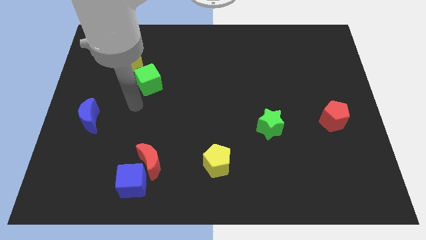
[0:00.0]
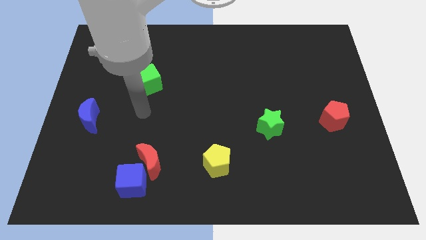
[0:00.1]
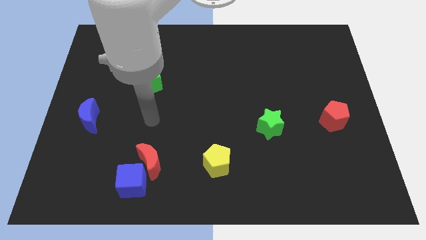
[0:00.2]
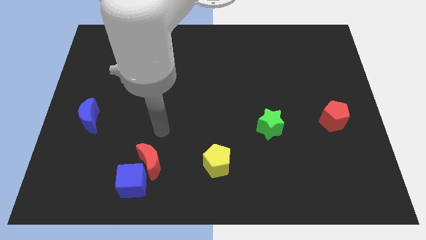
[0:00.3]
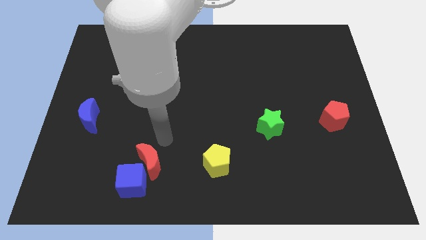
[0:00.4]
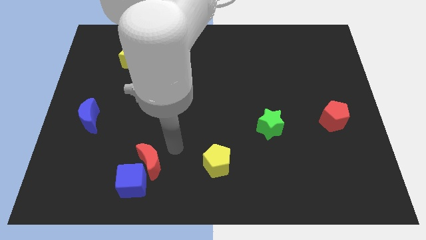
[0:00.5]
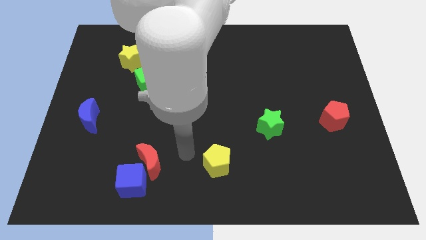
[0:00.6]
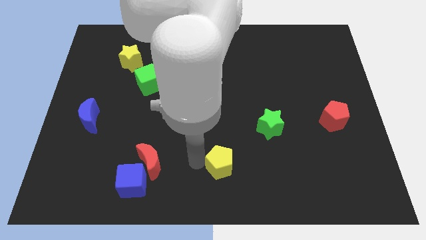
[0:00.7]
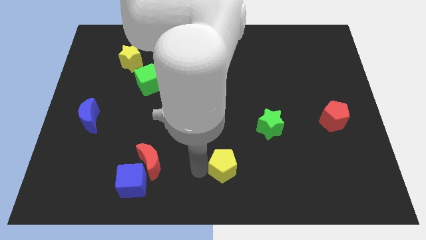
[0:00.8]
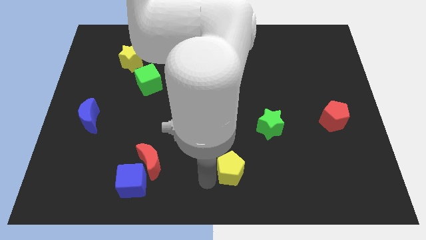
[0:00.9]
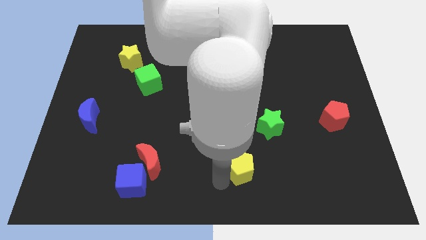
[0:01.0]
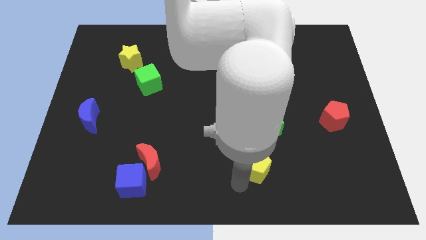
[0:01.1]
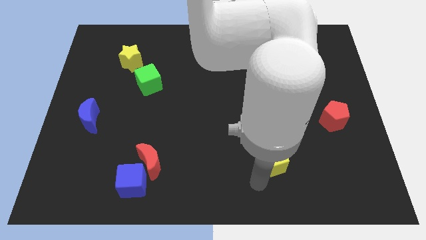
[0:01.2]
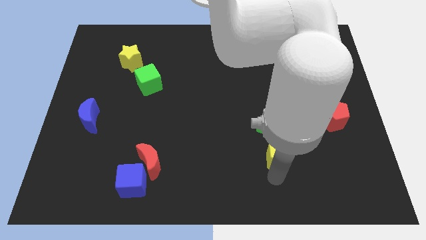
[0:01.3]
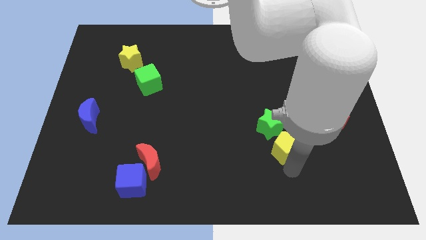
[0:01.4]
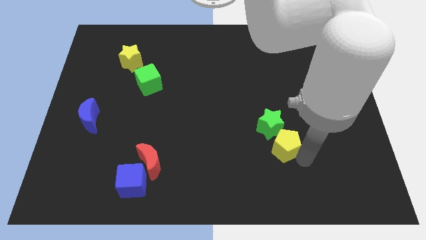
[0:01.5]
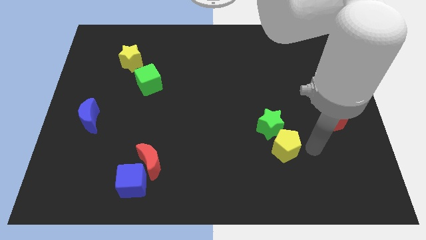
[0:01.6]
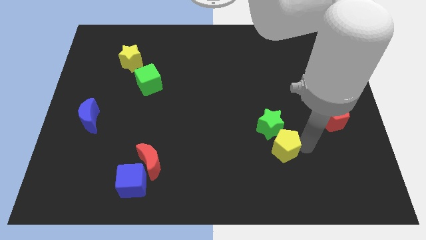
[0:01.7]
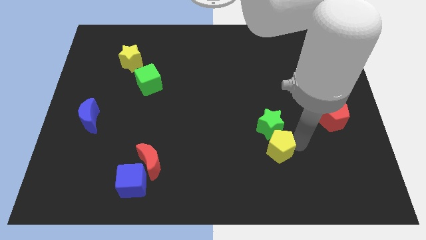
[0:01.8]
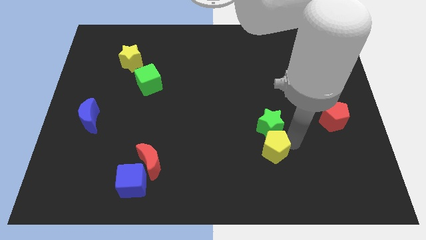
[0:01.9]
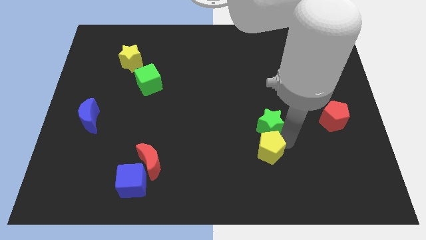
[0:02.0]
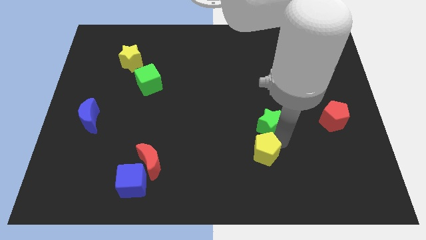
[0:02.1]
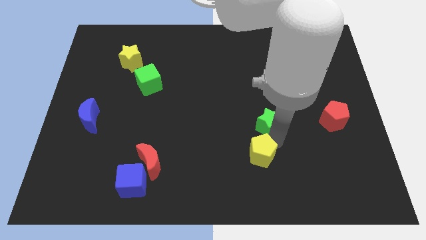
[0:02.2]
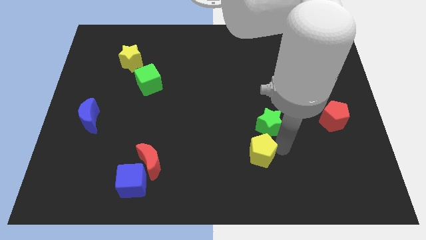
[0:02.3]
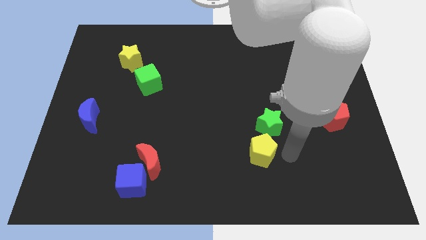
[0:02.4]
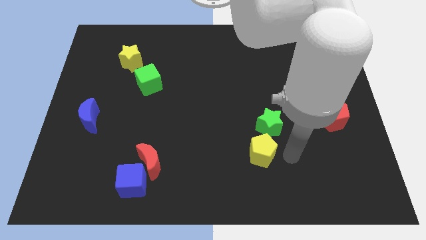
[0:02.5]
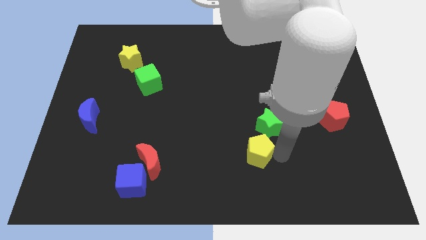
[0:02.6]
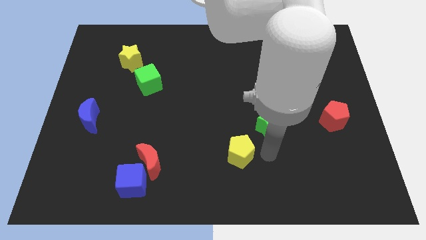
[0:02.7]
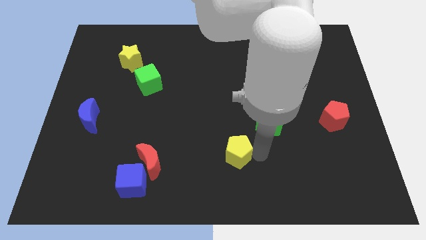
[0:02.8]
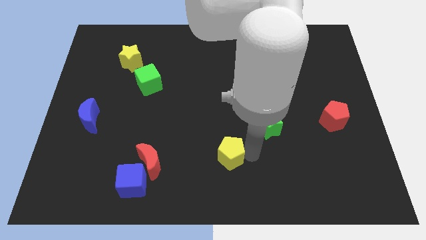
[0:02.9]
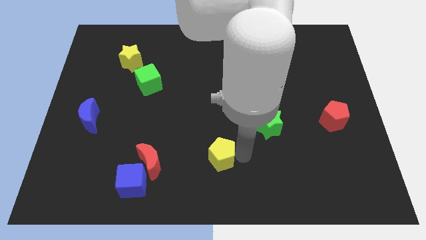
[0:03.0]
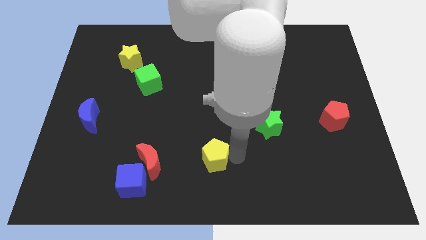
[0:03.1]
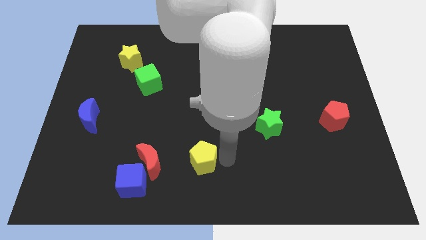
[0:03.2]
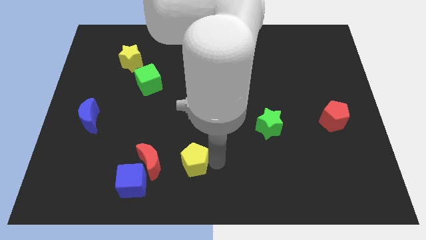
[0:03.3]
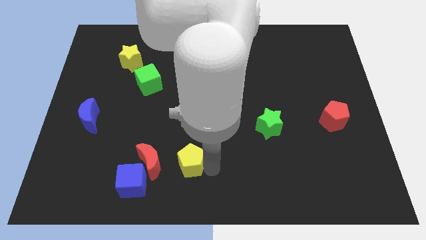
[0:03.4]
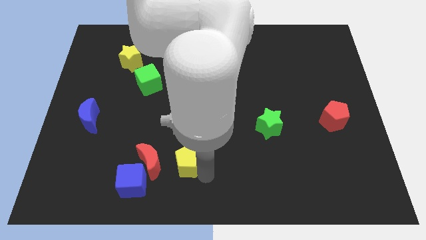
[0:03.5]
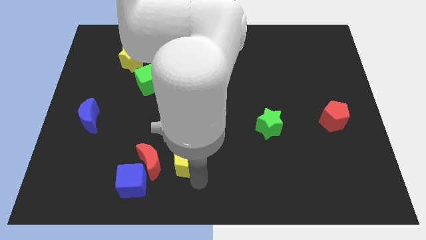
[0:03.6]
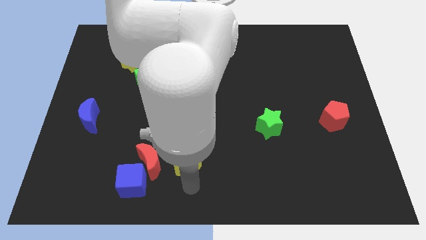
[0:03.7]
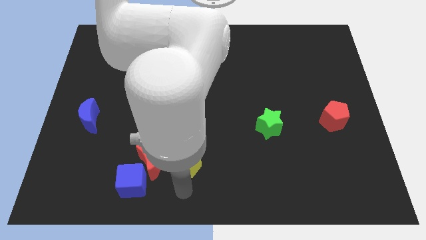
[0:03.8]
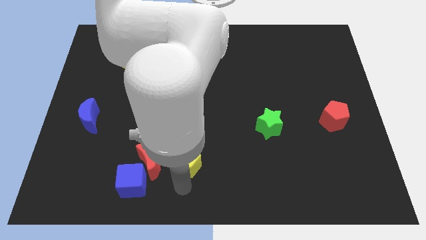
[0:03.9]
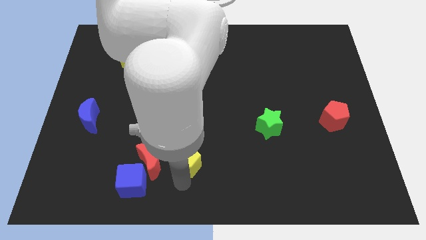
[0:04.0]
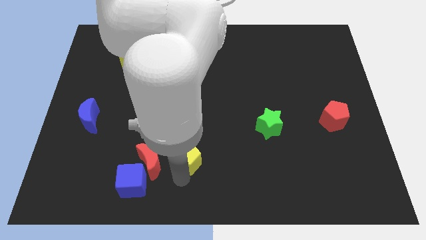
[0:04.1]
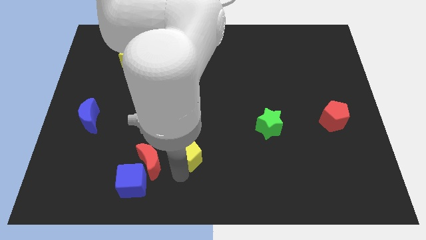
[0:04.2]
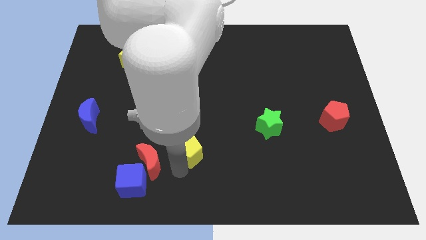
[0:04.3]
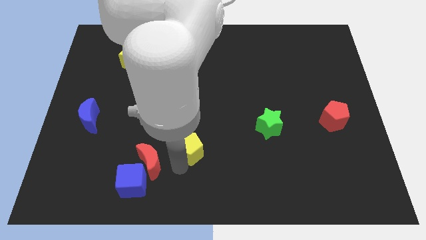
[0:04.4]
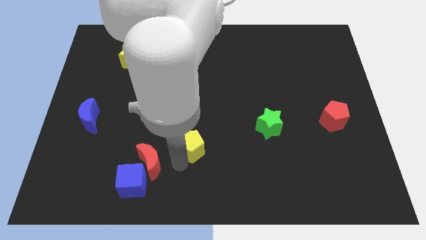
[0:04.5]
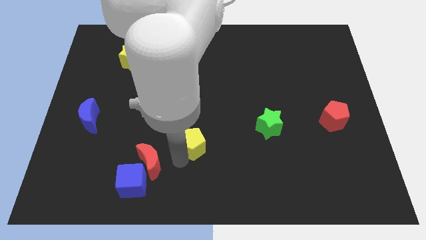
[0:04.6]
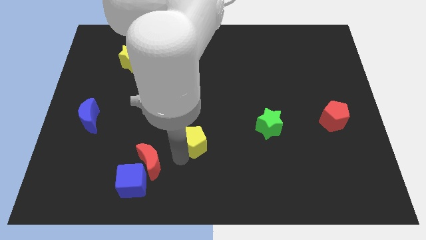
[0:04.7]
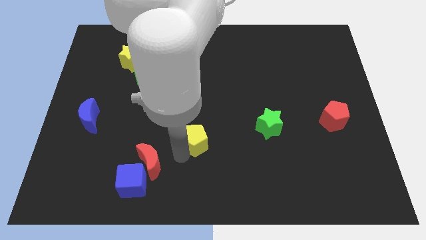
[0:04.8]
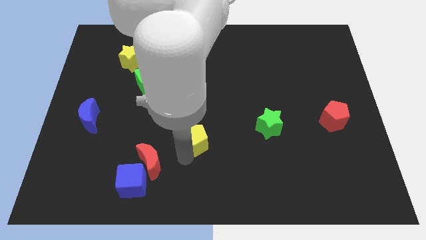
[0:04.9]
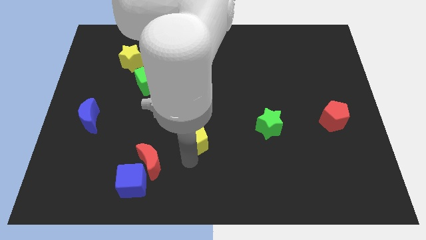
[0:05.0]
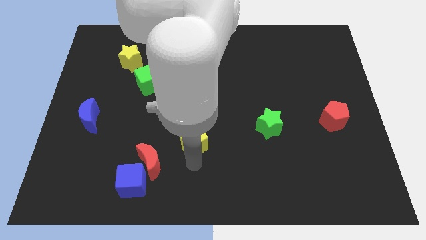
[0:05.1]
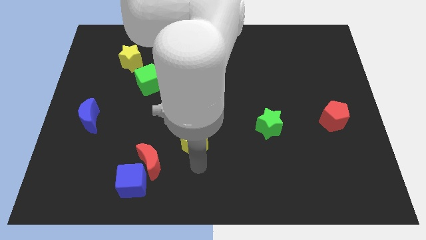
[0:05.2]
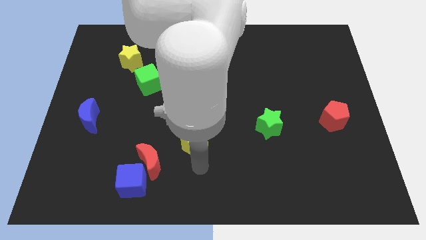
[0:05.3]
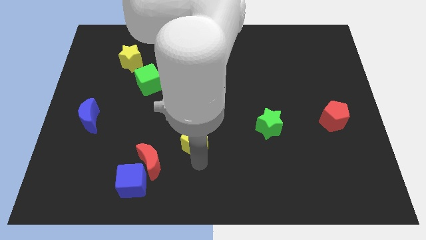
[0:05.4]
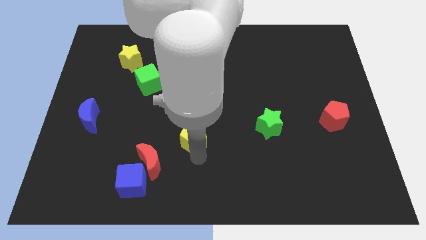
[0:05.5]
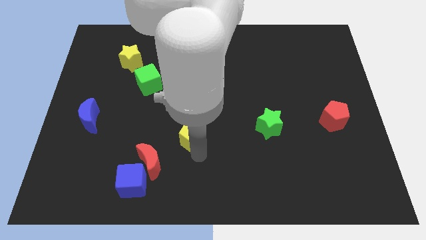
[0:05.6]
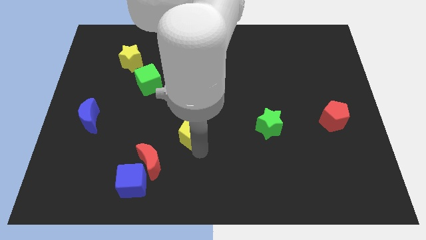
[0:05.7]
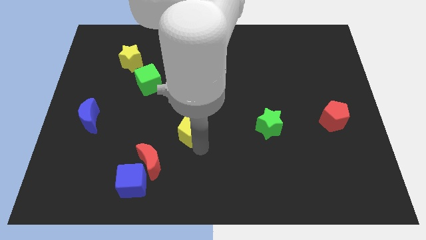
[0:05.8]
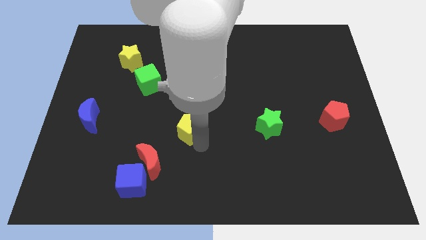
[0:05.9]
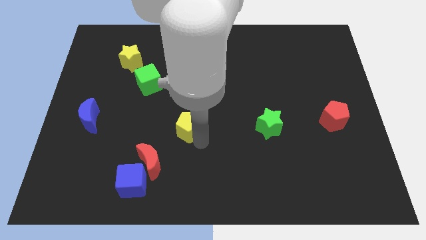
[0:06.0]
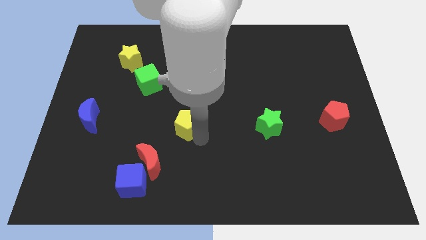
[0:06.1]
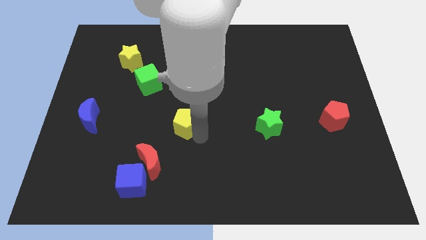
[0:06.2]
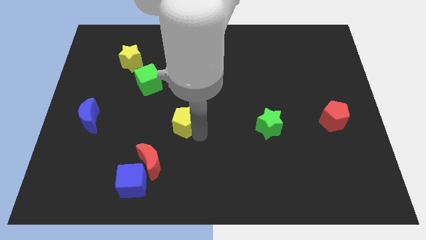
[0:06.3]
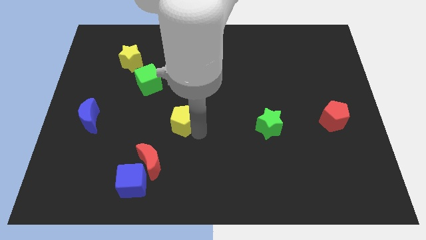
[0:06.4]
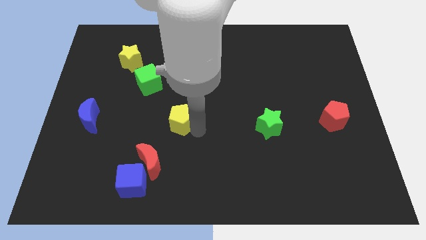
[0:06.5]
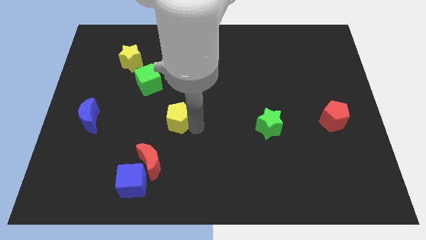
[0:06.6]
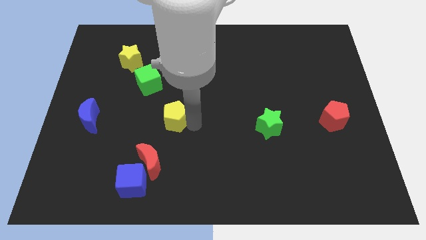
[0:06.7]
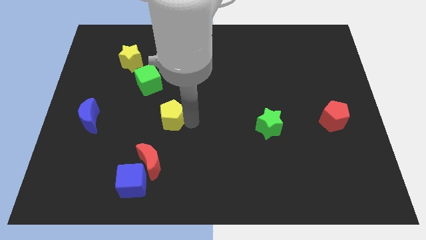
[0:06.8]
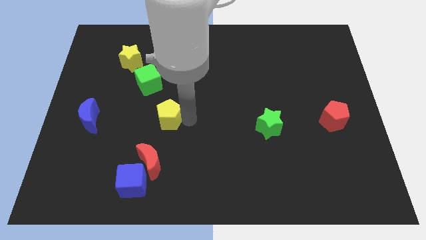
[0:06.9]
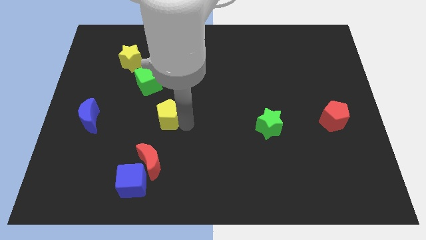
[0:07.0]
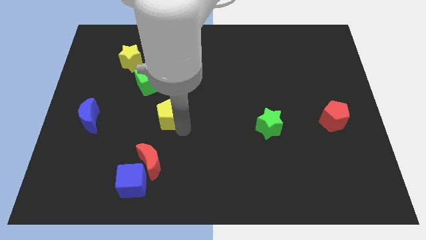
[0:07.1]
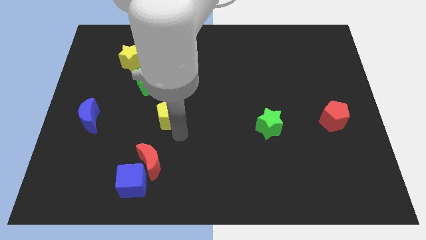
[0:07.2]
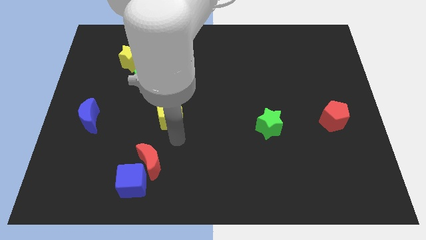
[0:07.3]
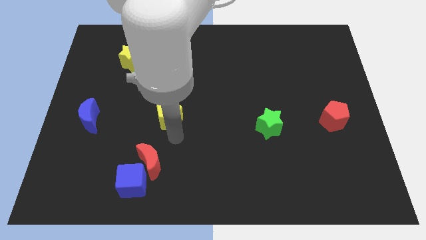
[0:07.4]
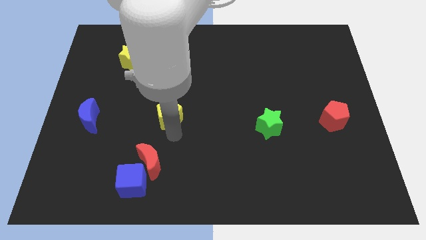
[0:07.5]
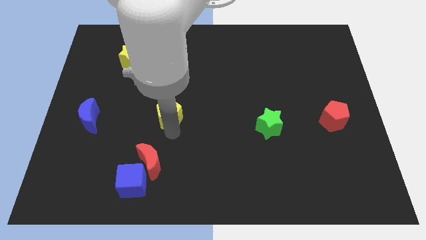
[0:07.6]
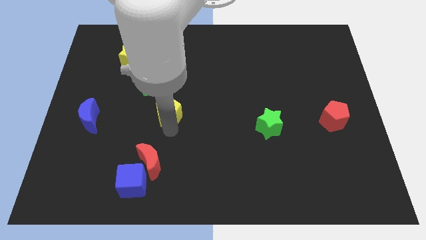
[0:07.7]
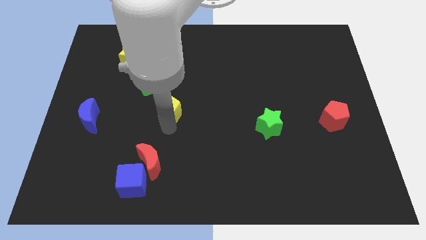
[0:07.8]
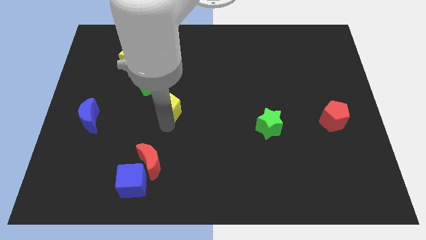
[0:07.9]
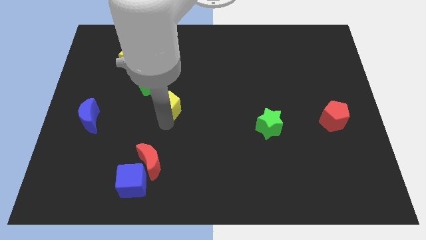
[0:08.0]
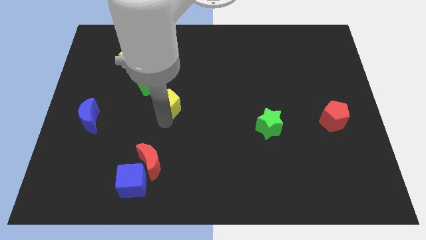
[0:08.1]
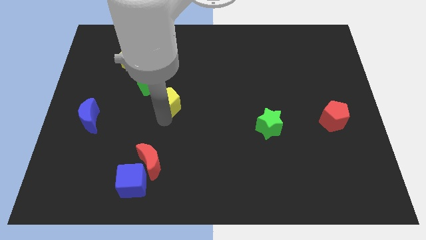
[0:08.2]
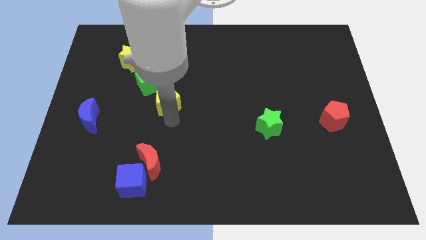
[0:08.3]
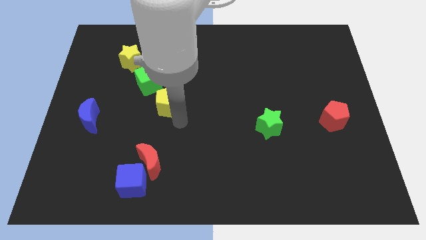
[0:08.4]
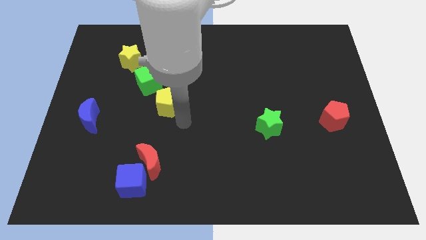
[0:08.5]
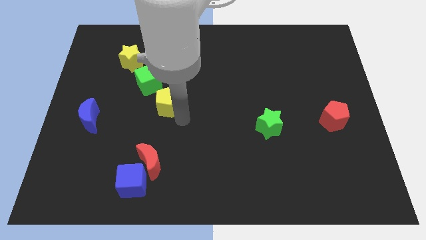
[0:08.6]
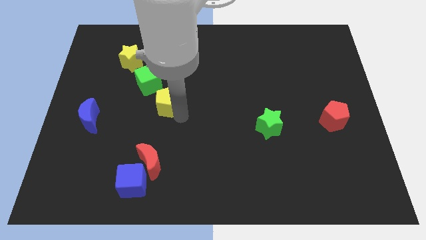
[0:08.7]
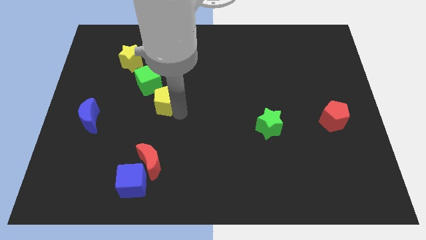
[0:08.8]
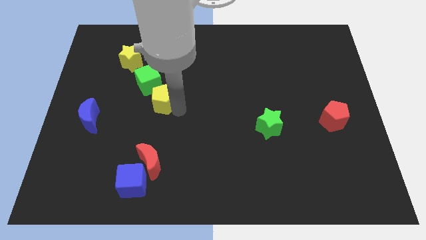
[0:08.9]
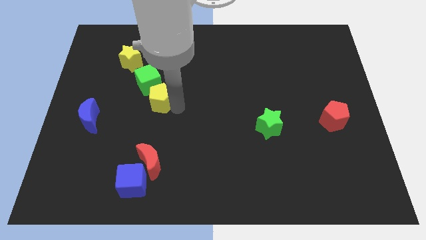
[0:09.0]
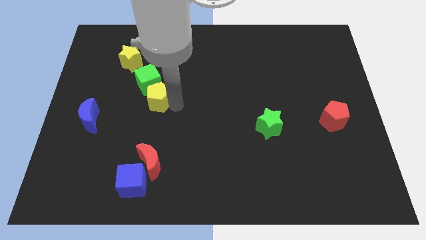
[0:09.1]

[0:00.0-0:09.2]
put the yellow pentagon towards the green cube
